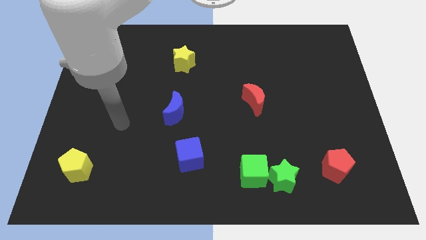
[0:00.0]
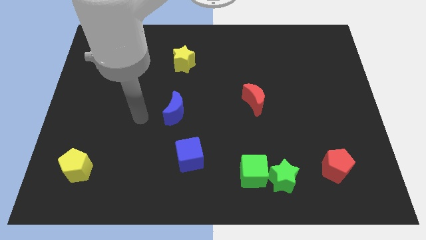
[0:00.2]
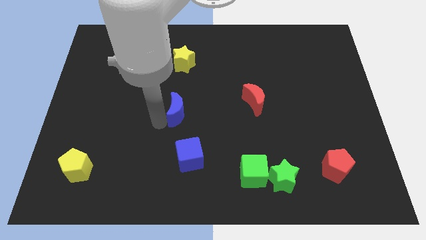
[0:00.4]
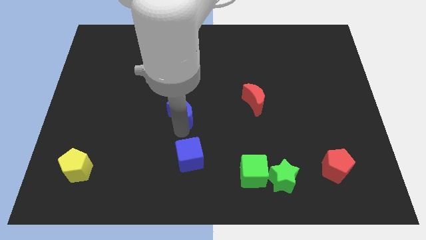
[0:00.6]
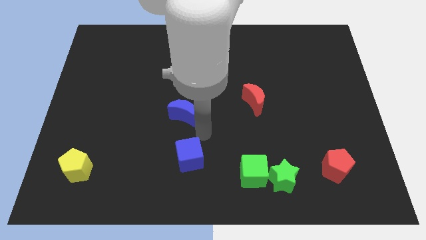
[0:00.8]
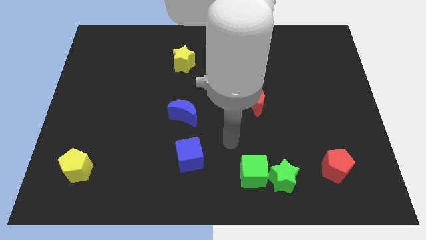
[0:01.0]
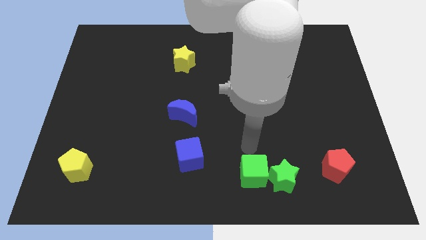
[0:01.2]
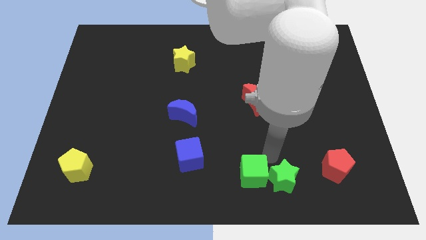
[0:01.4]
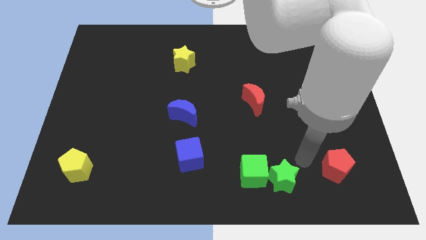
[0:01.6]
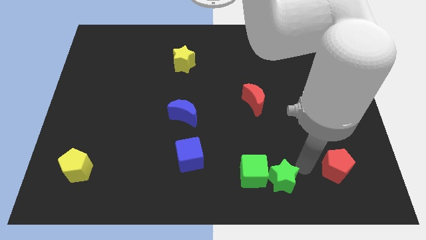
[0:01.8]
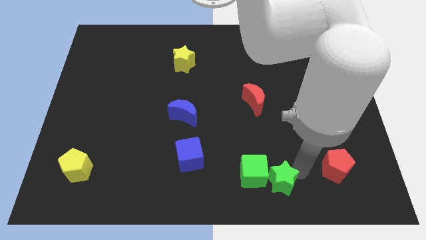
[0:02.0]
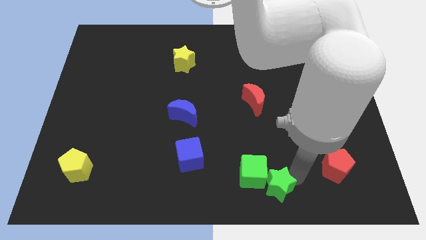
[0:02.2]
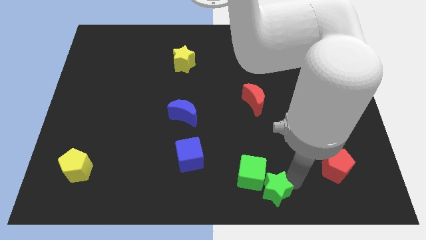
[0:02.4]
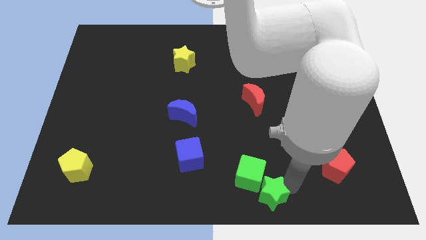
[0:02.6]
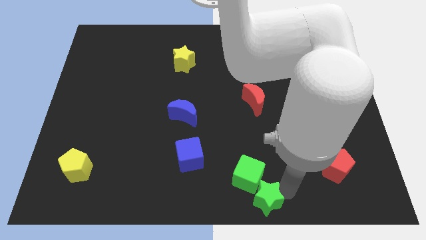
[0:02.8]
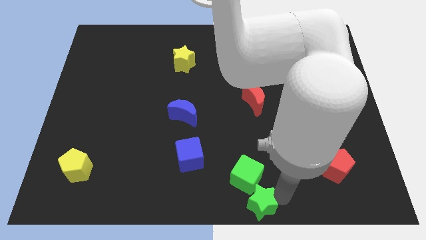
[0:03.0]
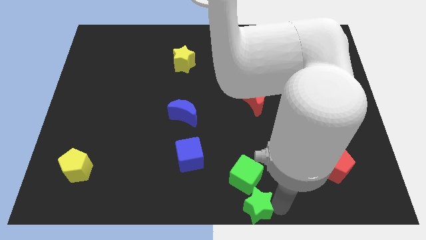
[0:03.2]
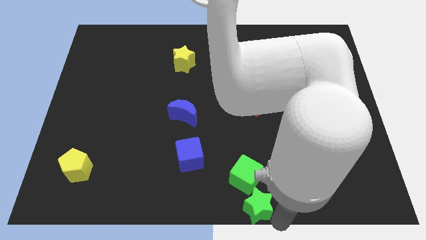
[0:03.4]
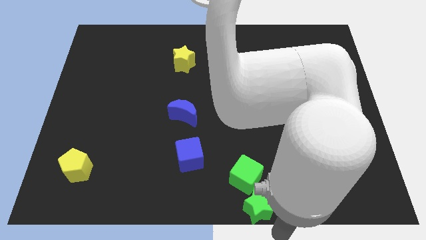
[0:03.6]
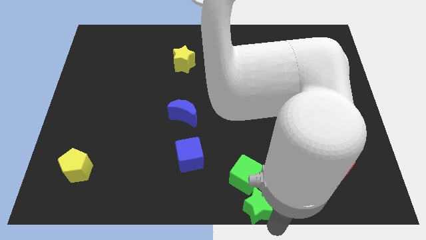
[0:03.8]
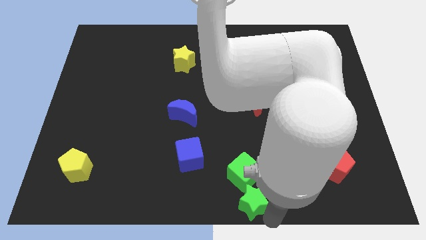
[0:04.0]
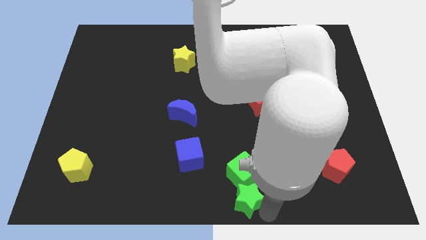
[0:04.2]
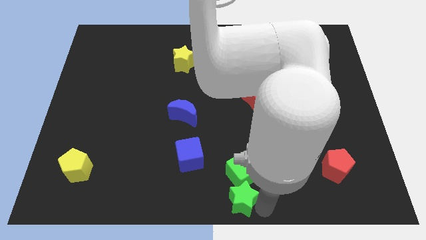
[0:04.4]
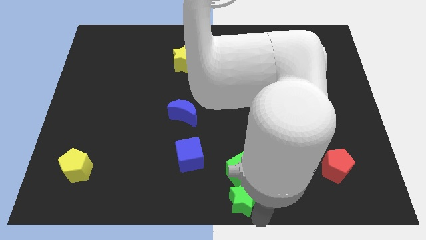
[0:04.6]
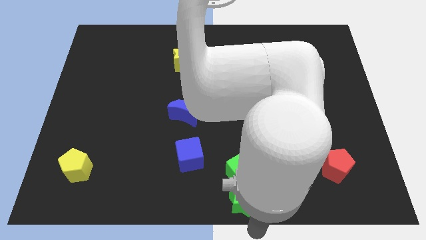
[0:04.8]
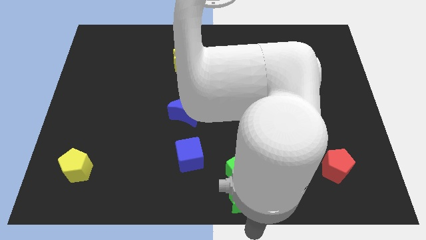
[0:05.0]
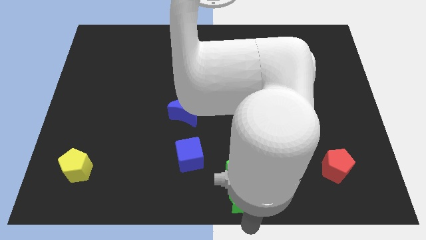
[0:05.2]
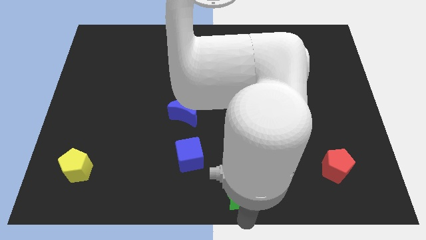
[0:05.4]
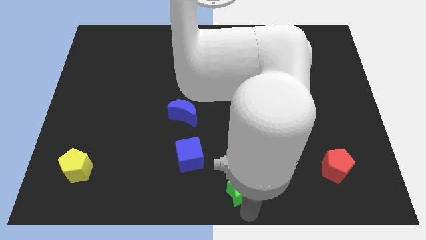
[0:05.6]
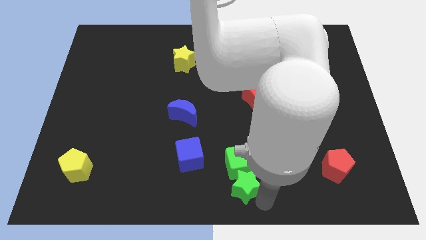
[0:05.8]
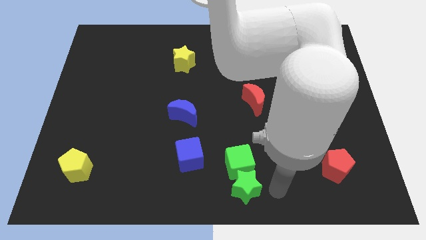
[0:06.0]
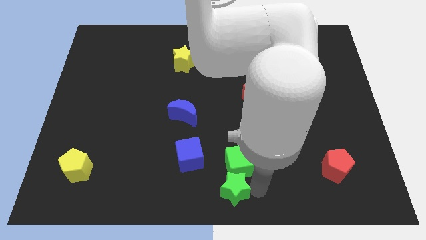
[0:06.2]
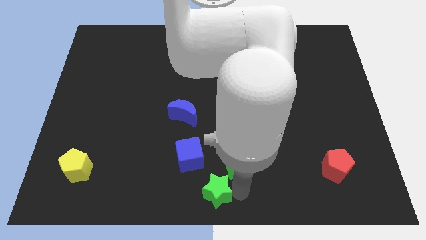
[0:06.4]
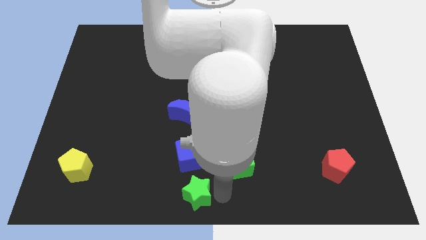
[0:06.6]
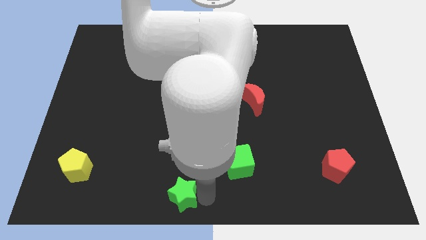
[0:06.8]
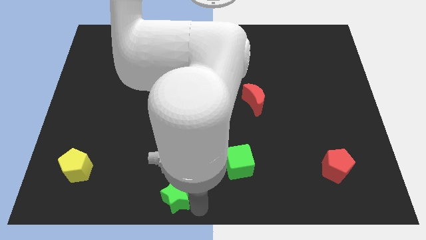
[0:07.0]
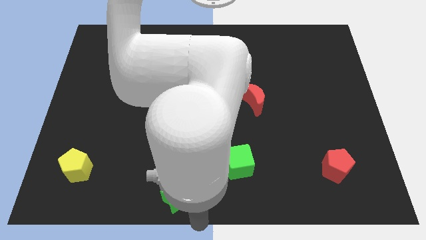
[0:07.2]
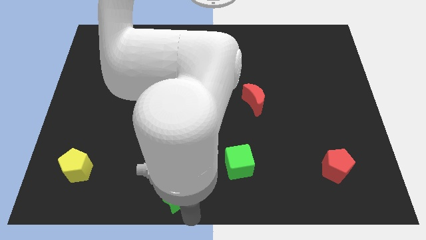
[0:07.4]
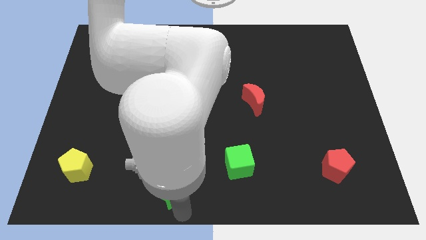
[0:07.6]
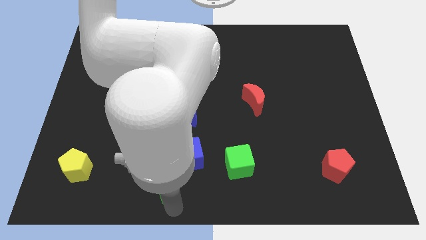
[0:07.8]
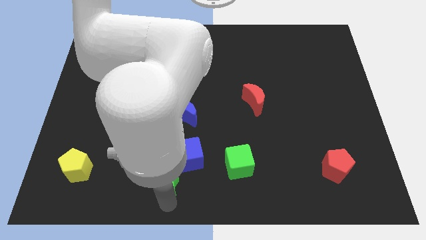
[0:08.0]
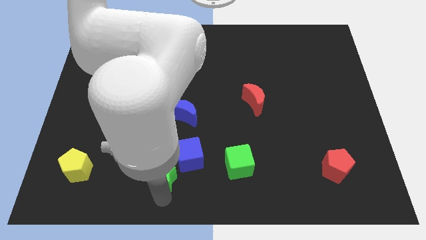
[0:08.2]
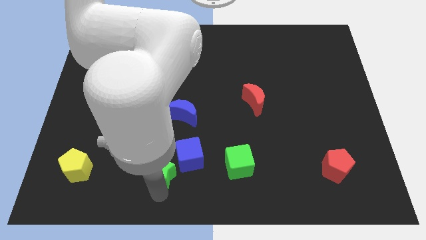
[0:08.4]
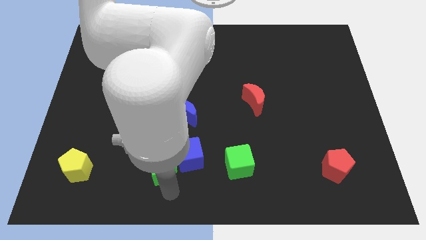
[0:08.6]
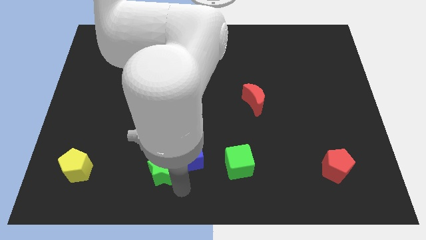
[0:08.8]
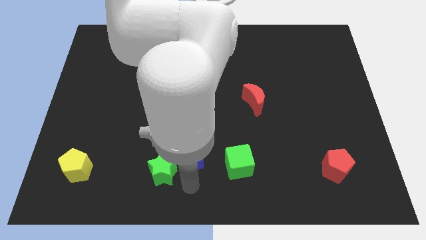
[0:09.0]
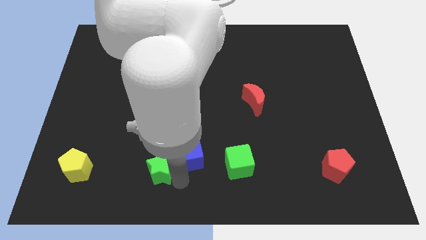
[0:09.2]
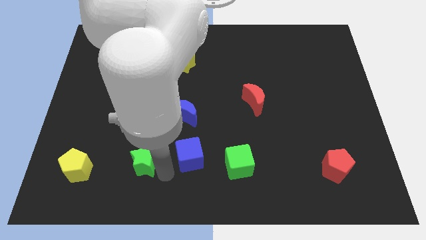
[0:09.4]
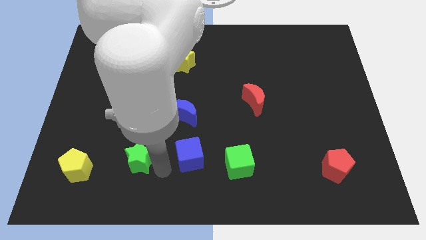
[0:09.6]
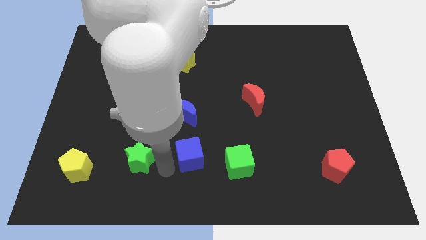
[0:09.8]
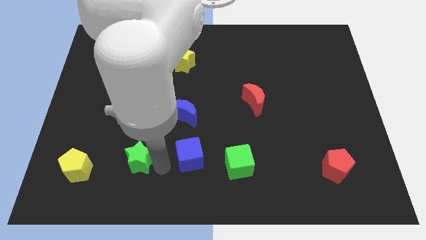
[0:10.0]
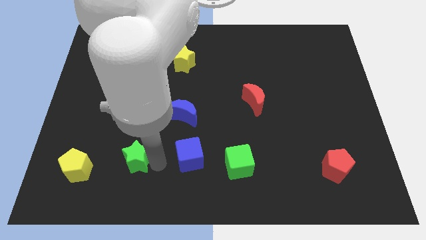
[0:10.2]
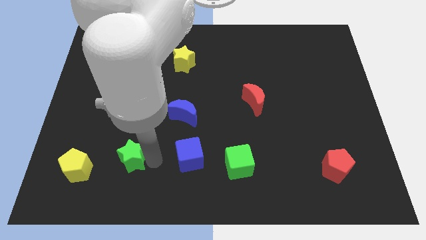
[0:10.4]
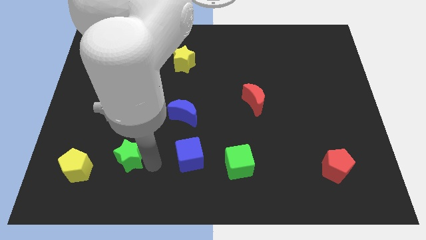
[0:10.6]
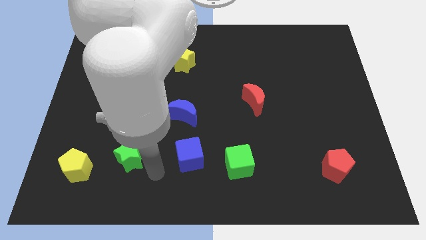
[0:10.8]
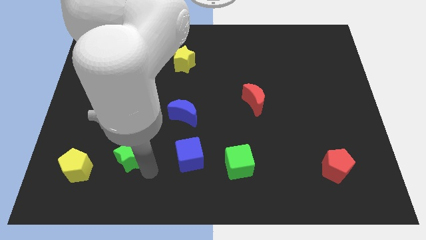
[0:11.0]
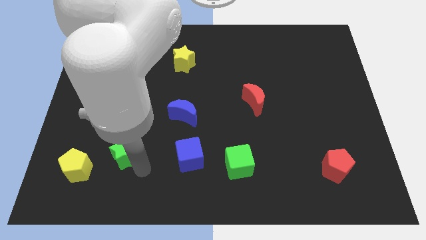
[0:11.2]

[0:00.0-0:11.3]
slide the green star to the top right side of the yellow pentagon

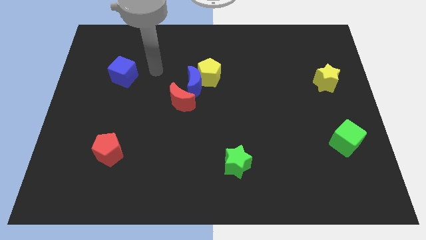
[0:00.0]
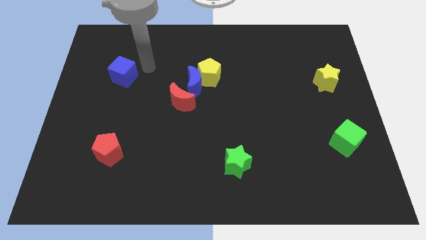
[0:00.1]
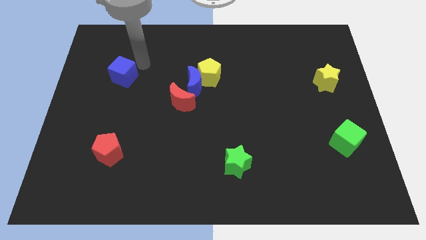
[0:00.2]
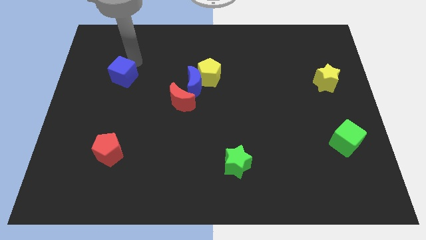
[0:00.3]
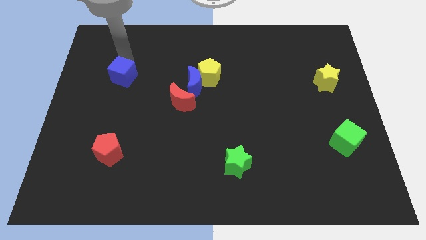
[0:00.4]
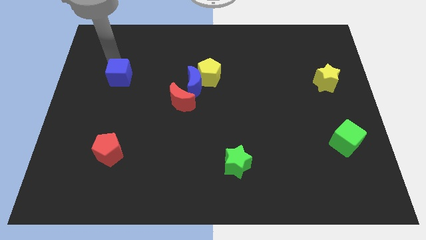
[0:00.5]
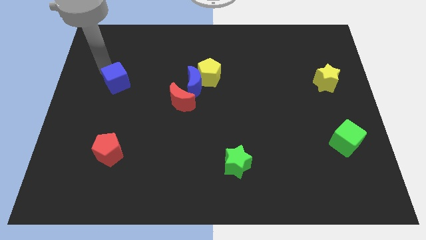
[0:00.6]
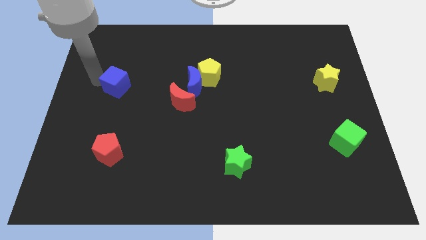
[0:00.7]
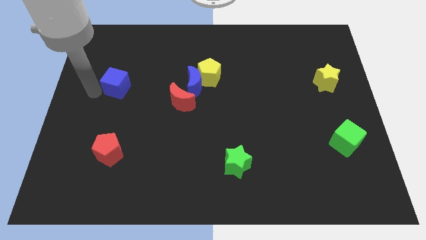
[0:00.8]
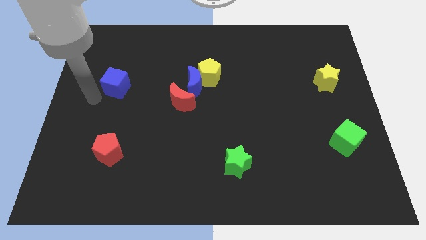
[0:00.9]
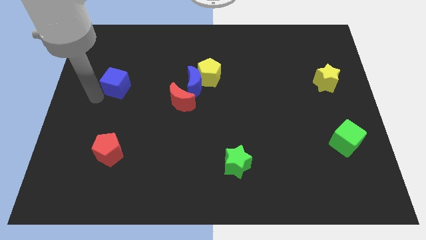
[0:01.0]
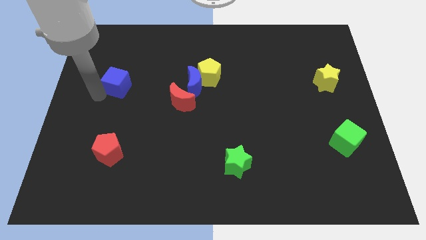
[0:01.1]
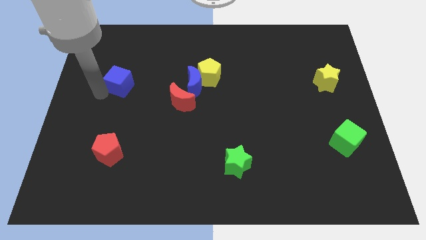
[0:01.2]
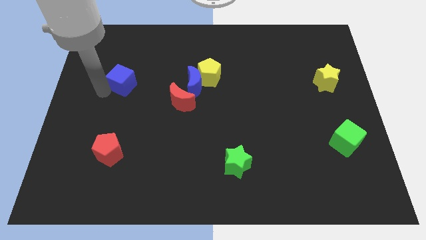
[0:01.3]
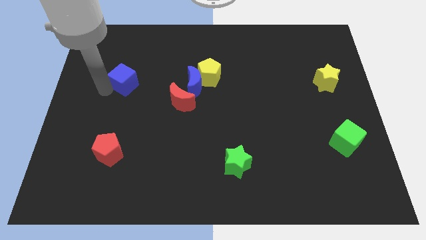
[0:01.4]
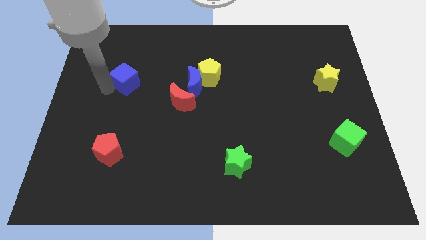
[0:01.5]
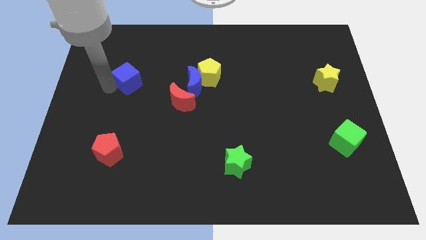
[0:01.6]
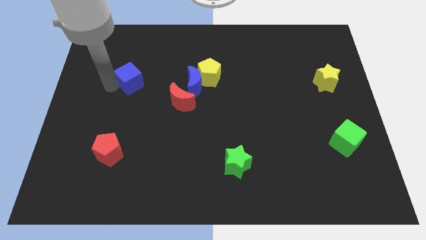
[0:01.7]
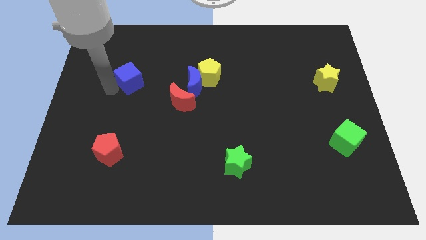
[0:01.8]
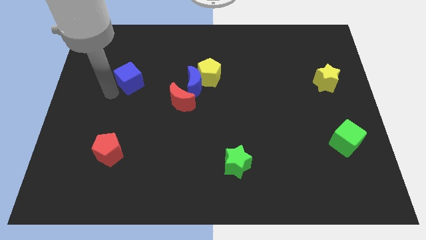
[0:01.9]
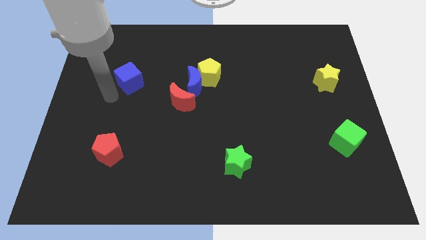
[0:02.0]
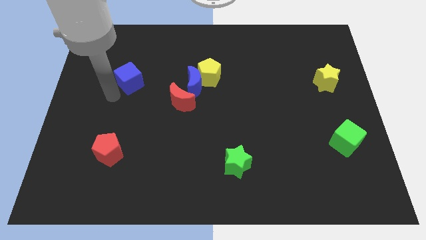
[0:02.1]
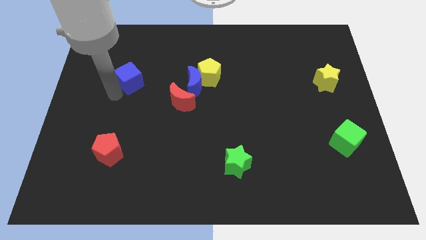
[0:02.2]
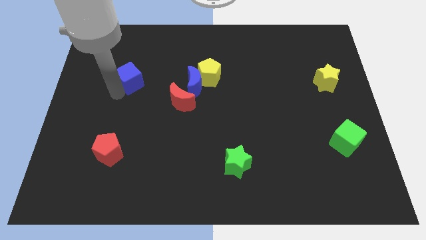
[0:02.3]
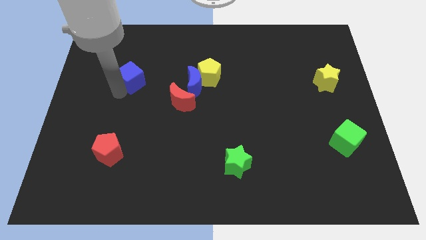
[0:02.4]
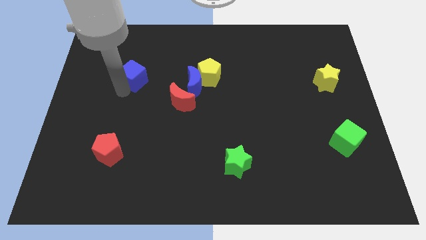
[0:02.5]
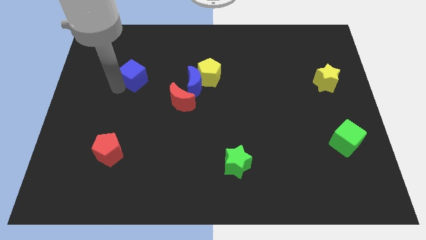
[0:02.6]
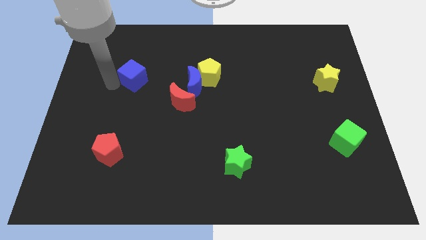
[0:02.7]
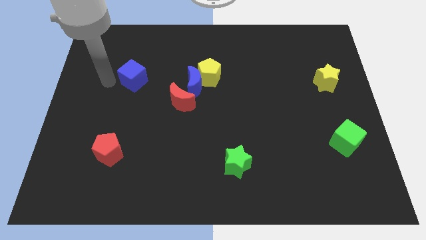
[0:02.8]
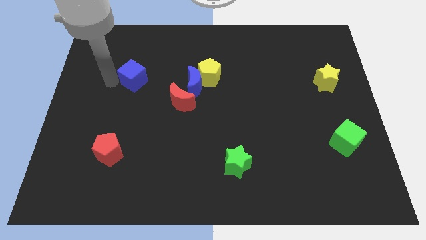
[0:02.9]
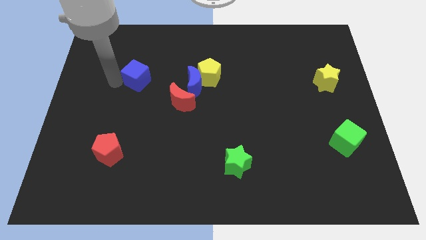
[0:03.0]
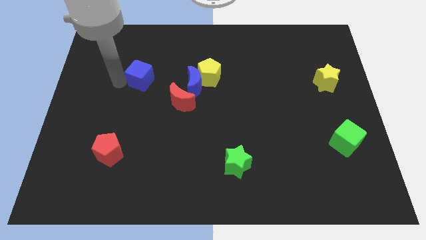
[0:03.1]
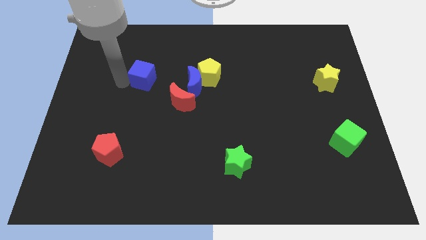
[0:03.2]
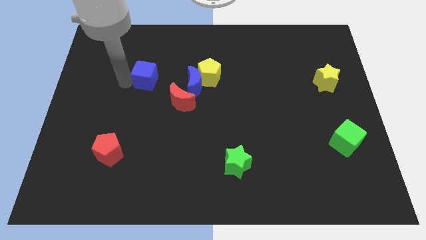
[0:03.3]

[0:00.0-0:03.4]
slide the blue cube to the left side of the yellow pentagon
